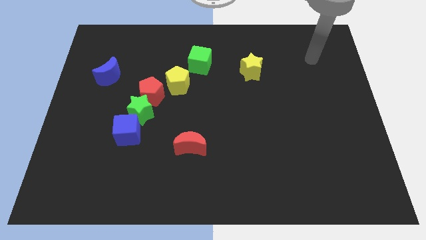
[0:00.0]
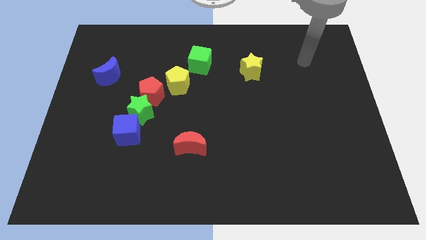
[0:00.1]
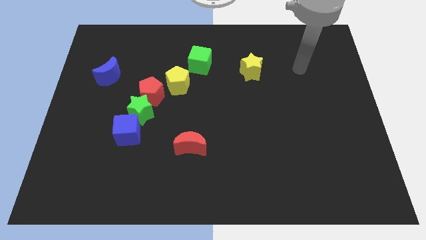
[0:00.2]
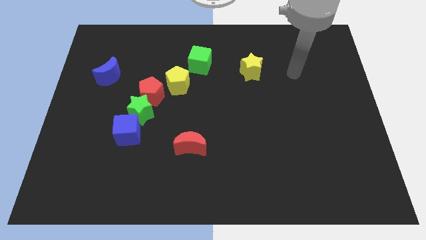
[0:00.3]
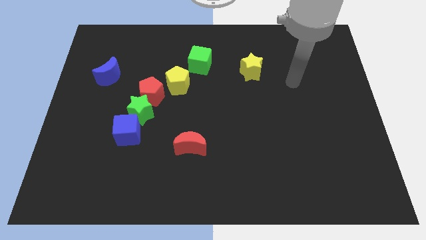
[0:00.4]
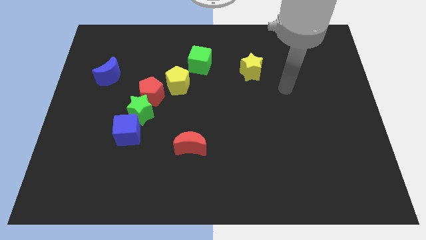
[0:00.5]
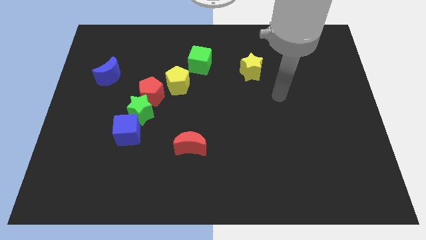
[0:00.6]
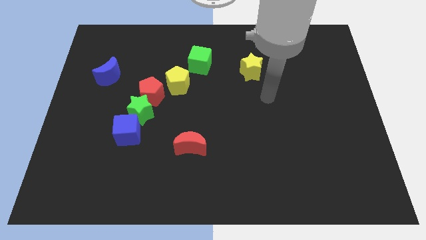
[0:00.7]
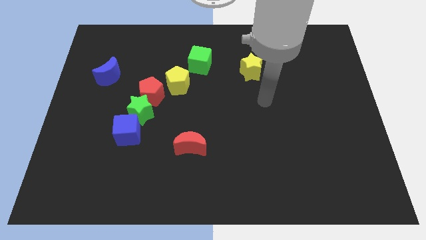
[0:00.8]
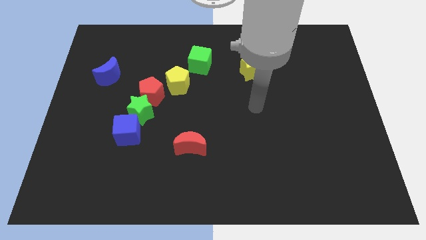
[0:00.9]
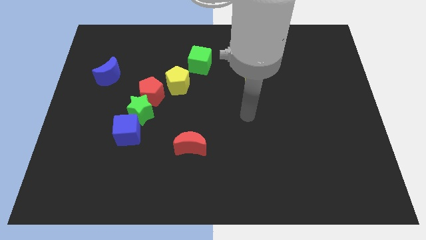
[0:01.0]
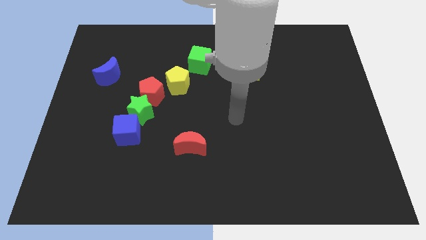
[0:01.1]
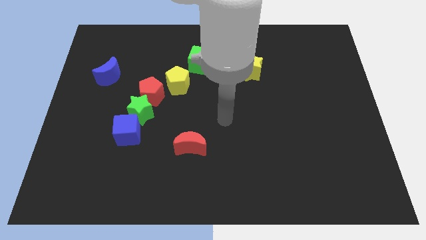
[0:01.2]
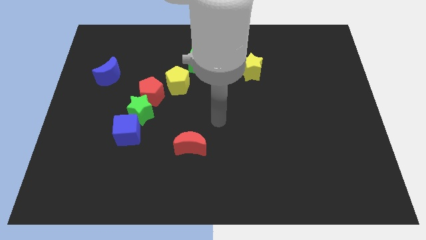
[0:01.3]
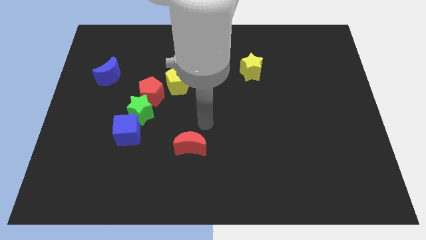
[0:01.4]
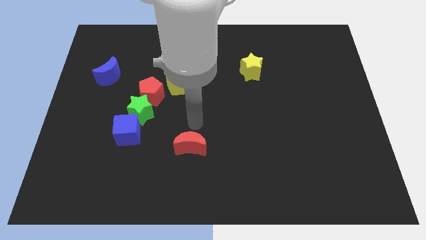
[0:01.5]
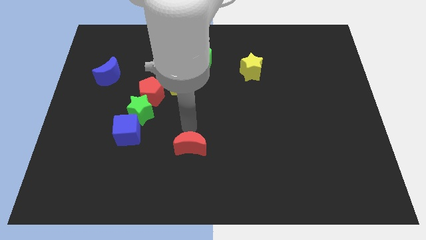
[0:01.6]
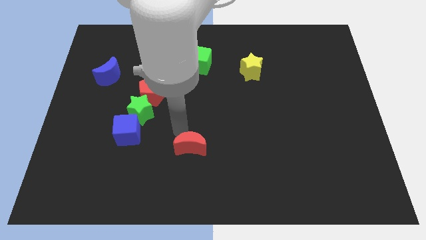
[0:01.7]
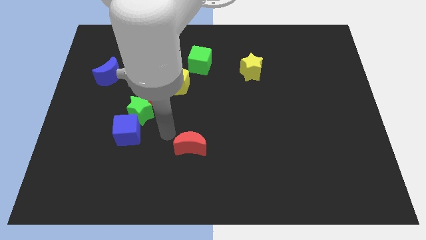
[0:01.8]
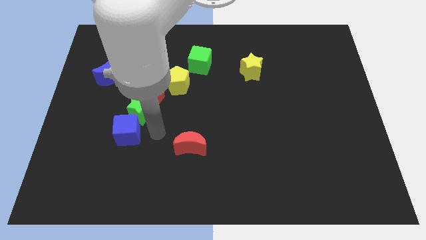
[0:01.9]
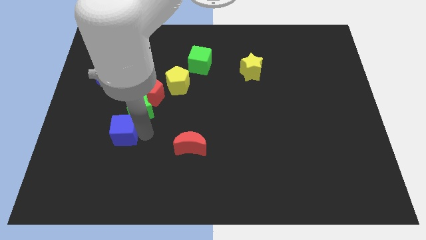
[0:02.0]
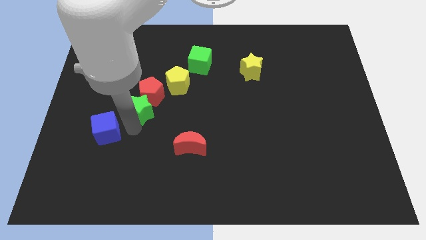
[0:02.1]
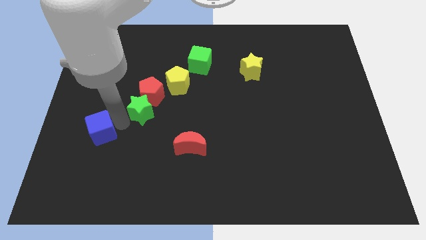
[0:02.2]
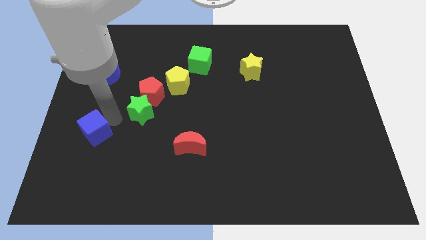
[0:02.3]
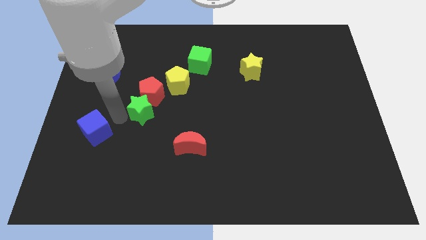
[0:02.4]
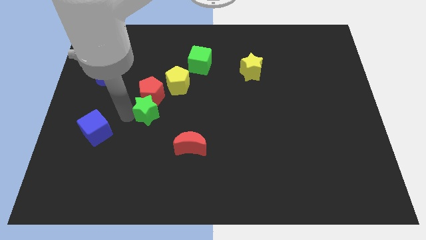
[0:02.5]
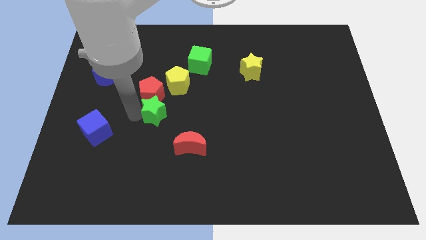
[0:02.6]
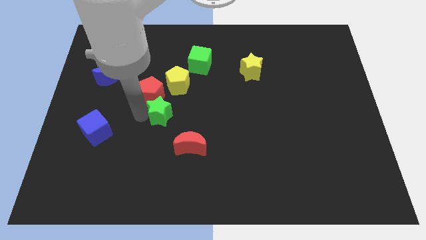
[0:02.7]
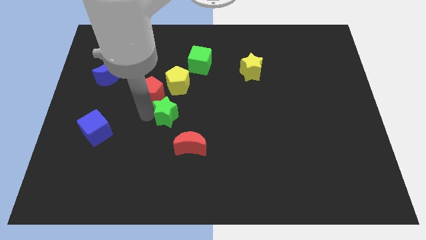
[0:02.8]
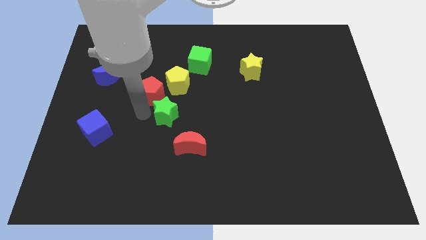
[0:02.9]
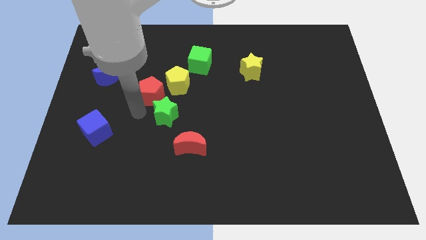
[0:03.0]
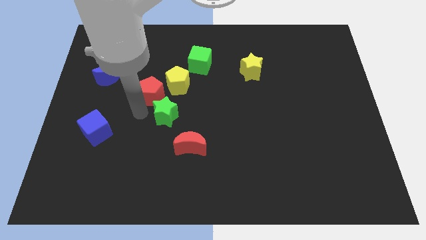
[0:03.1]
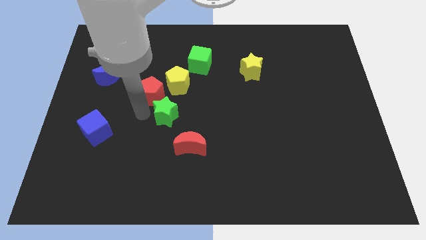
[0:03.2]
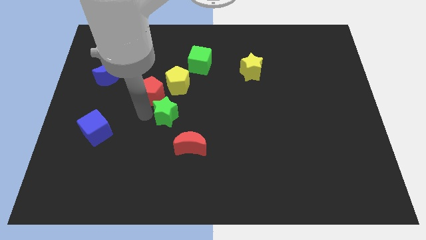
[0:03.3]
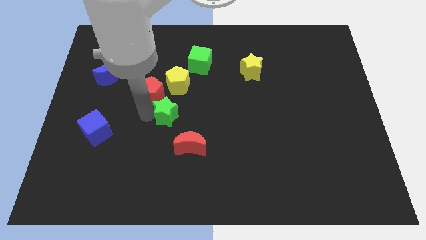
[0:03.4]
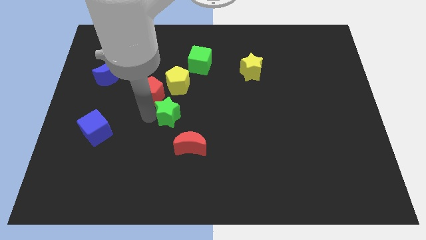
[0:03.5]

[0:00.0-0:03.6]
separate the green star from the red pentagon and blue cube

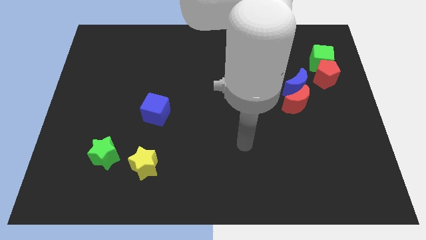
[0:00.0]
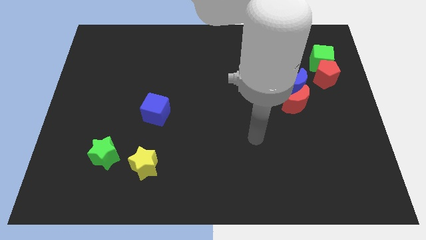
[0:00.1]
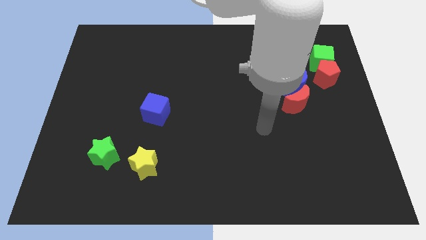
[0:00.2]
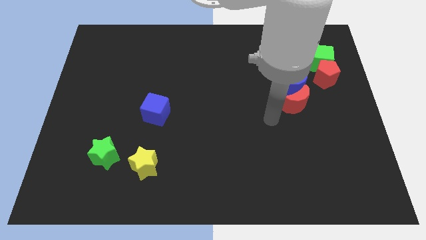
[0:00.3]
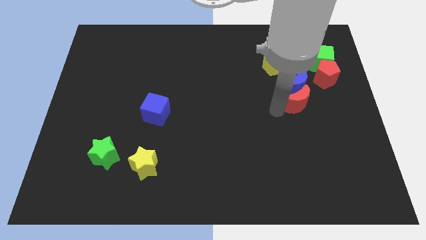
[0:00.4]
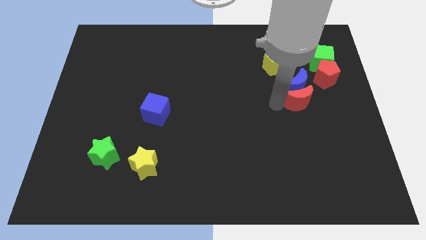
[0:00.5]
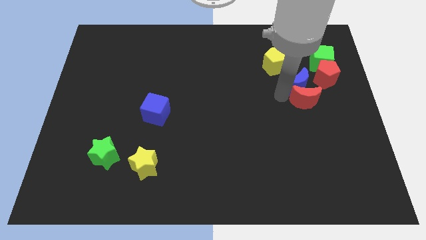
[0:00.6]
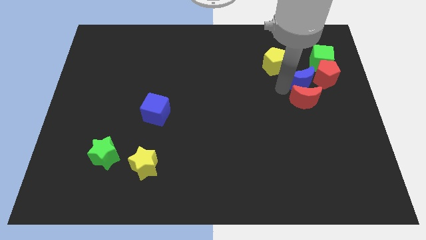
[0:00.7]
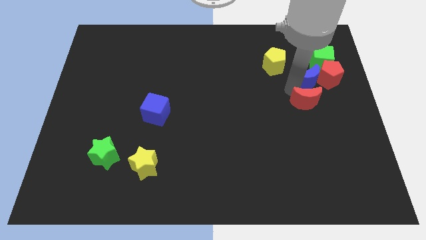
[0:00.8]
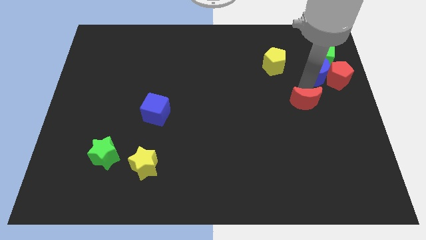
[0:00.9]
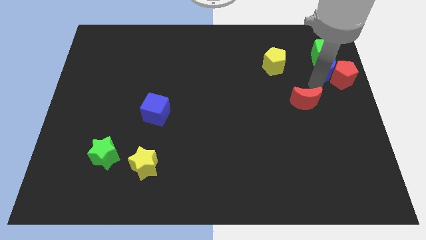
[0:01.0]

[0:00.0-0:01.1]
pull the red moon apart from the blue moon

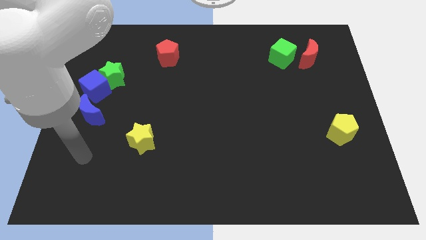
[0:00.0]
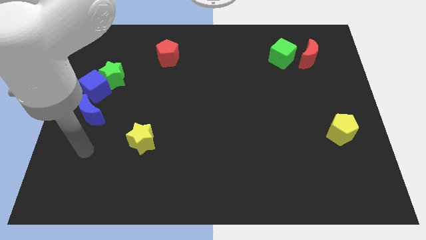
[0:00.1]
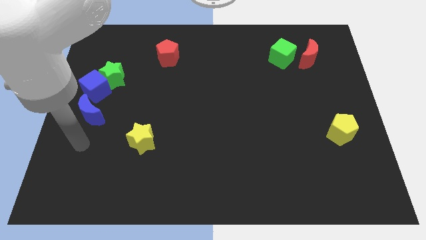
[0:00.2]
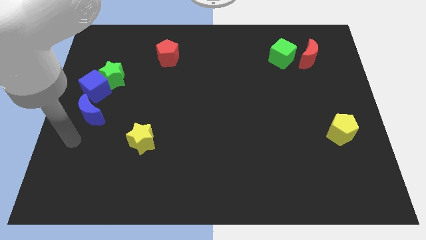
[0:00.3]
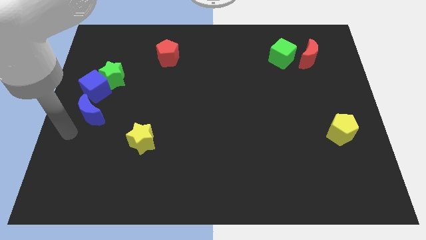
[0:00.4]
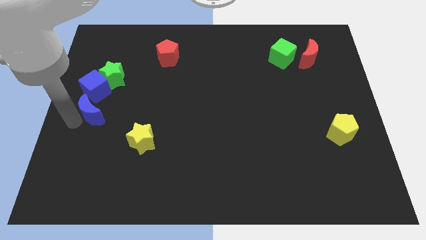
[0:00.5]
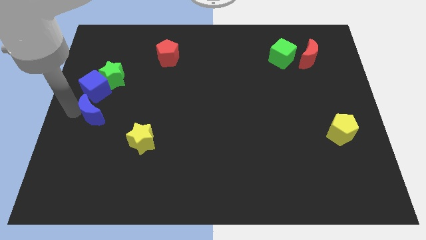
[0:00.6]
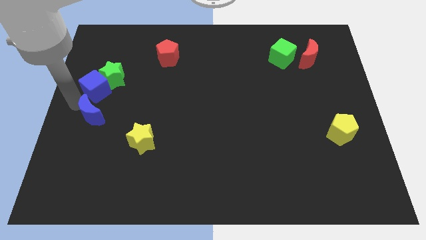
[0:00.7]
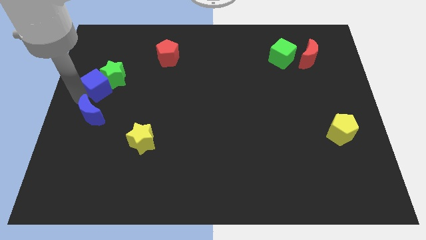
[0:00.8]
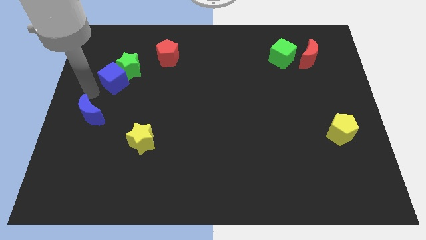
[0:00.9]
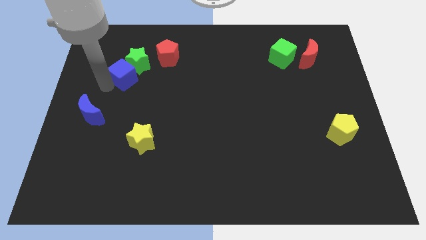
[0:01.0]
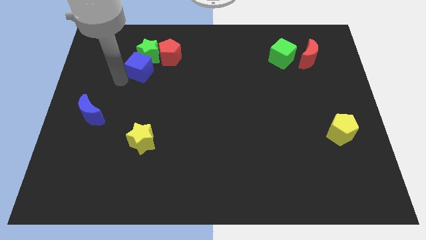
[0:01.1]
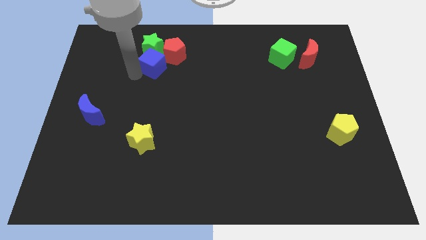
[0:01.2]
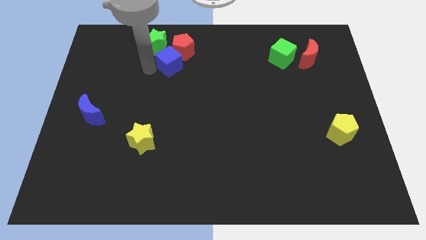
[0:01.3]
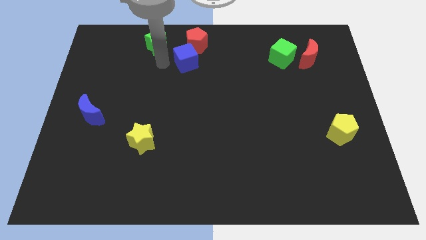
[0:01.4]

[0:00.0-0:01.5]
separate the green star from the blue cube

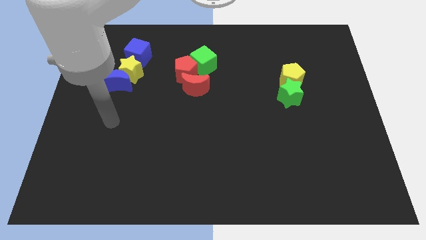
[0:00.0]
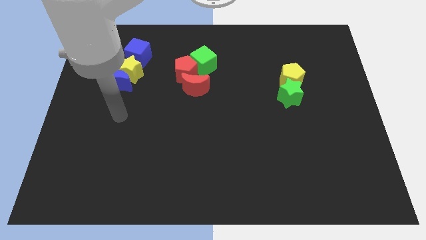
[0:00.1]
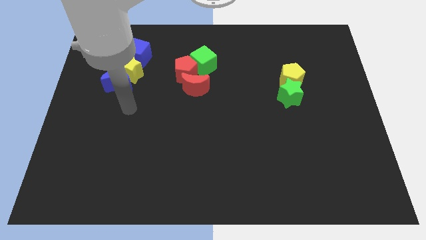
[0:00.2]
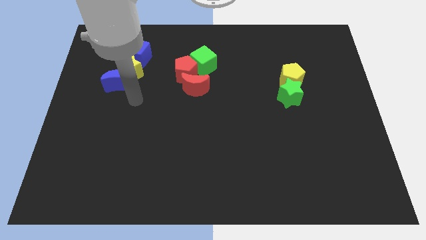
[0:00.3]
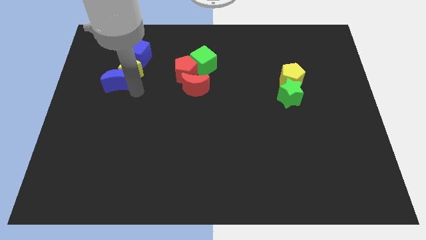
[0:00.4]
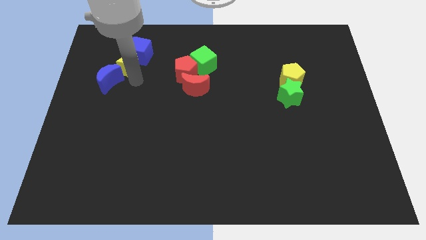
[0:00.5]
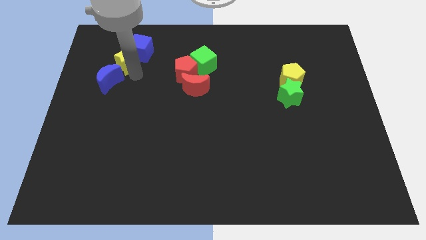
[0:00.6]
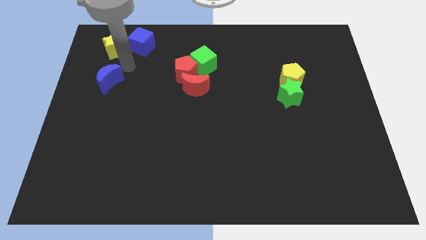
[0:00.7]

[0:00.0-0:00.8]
move the blue moon away from the yellow star

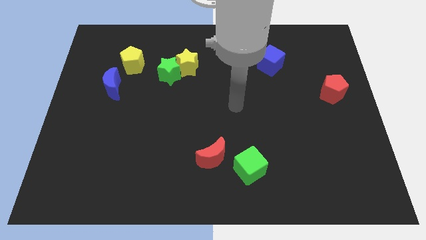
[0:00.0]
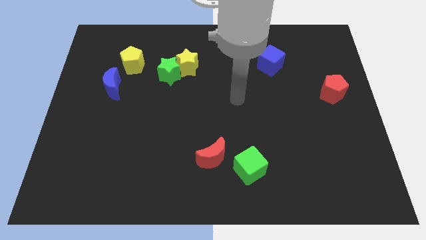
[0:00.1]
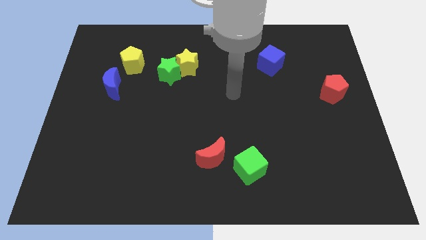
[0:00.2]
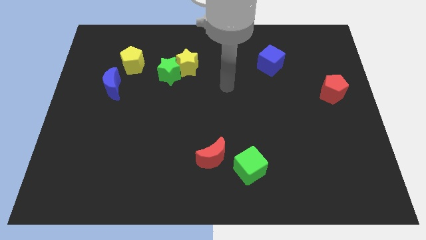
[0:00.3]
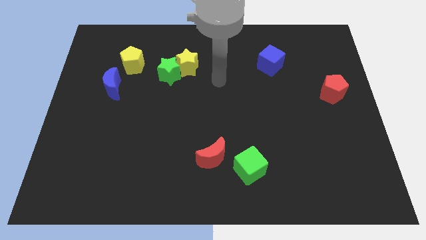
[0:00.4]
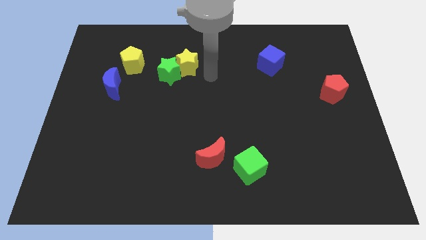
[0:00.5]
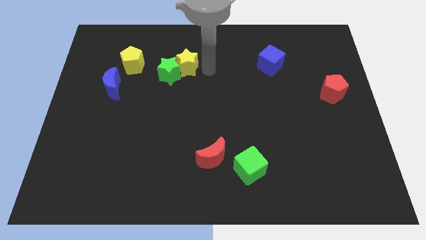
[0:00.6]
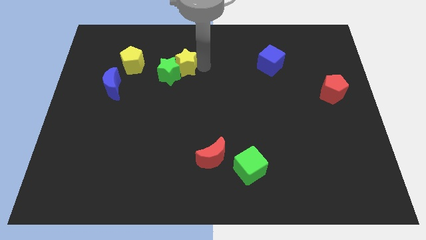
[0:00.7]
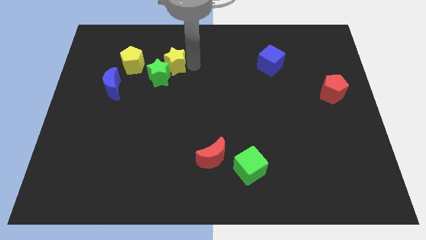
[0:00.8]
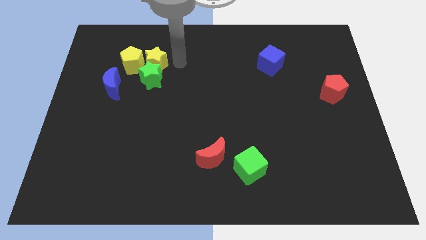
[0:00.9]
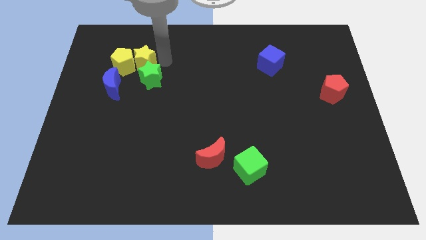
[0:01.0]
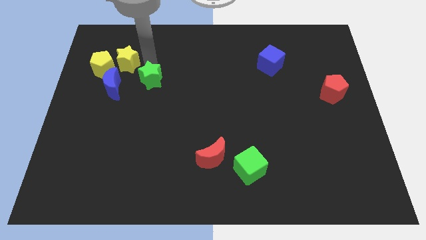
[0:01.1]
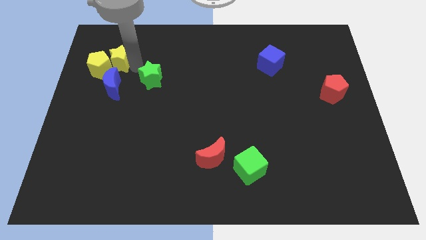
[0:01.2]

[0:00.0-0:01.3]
move the green star away from the yellow star

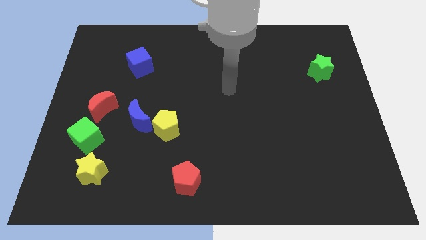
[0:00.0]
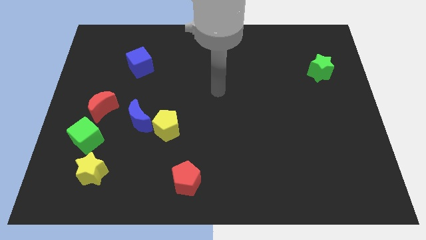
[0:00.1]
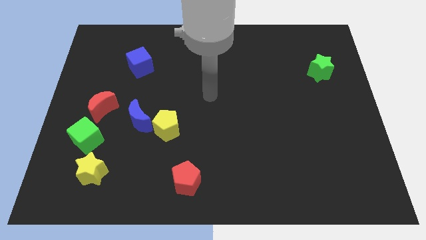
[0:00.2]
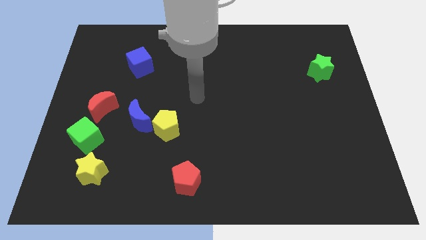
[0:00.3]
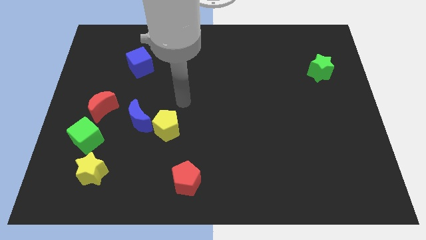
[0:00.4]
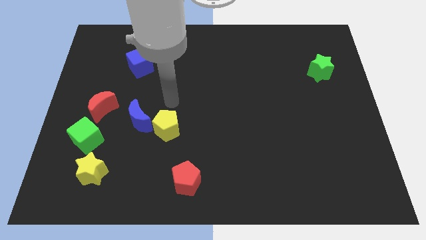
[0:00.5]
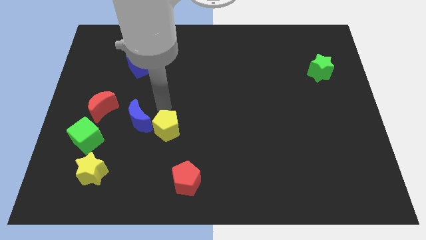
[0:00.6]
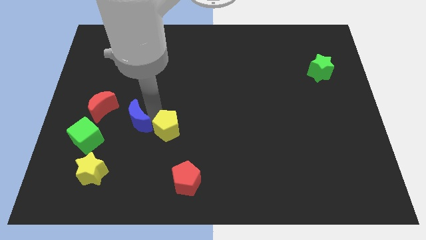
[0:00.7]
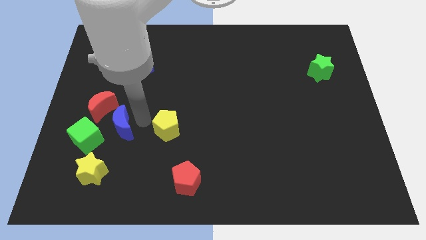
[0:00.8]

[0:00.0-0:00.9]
move the yellow pentagon away from the blue moon

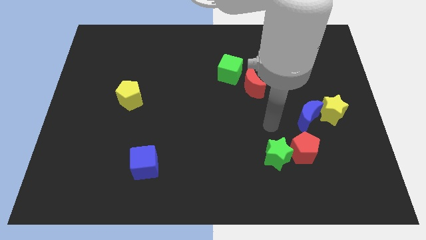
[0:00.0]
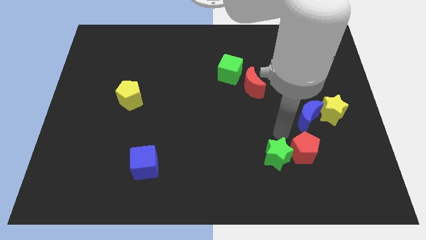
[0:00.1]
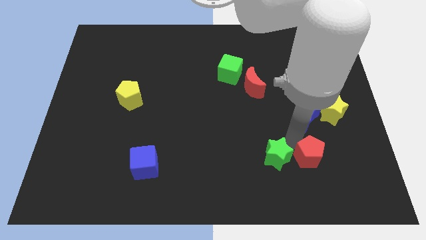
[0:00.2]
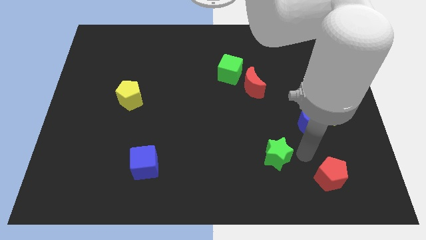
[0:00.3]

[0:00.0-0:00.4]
separate the green star from the red pentagon
